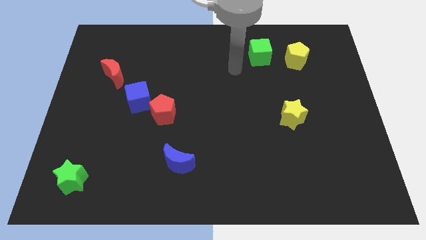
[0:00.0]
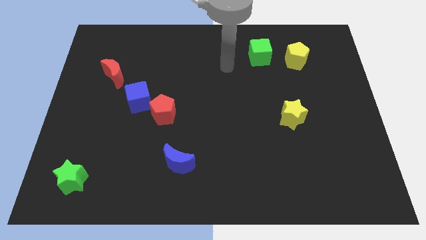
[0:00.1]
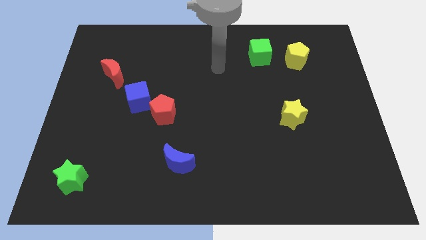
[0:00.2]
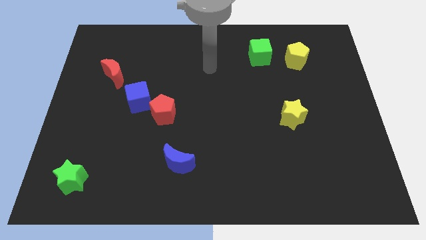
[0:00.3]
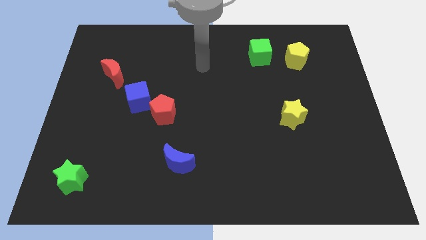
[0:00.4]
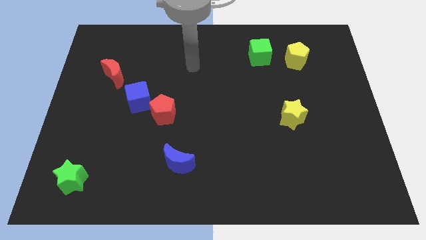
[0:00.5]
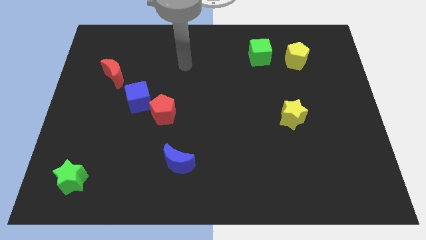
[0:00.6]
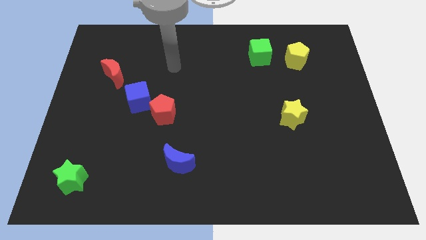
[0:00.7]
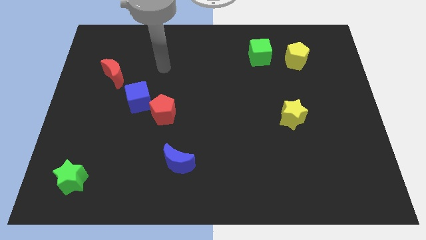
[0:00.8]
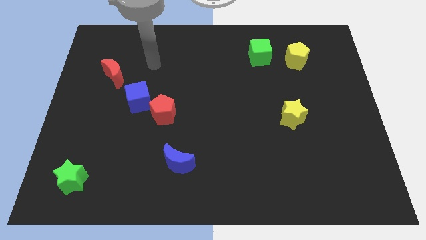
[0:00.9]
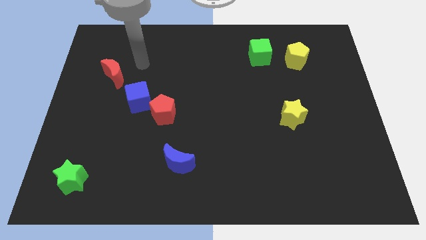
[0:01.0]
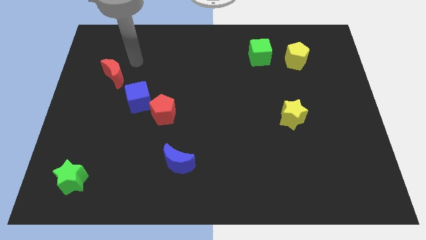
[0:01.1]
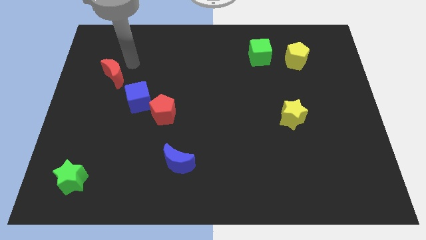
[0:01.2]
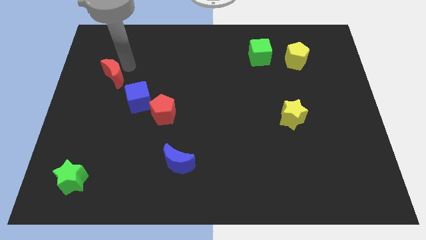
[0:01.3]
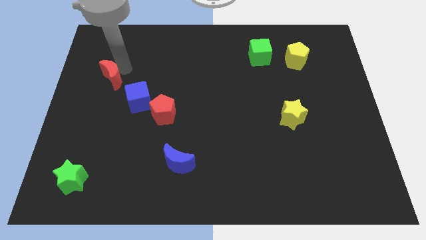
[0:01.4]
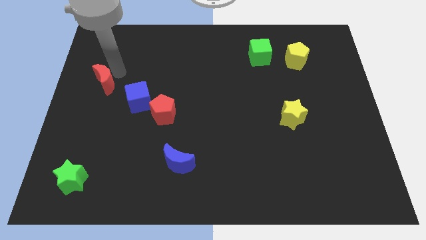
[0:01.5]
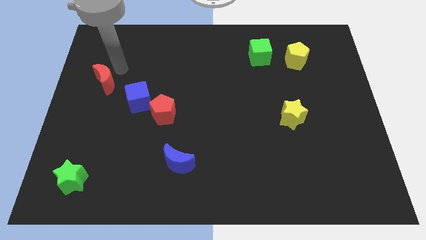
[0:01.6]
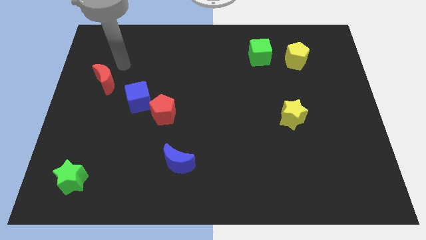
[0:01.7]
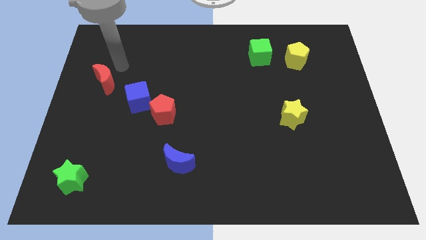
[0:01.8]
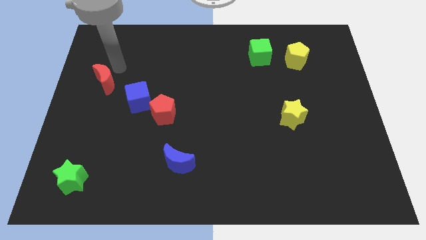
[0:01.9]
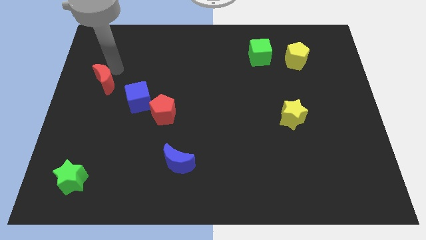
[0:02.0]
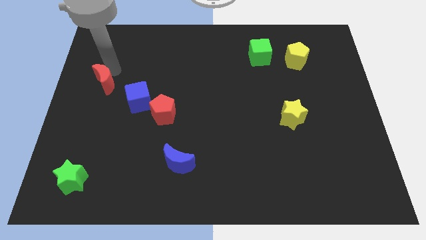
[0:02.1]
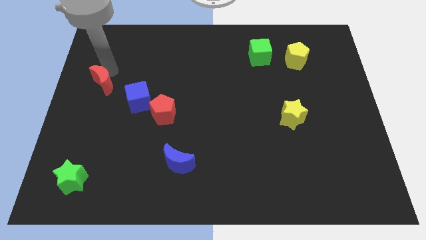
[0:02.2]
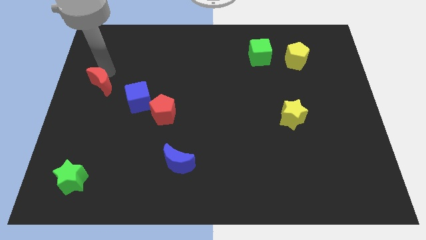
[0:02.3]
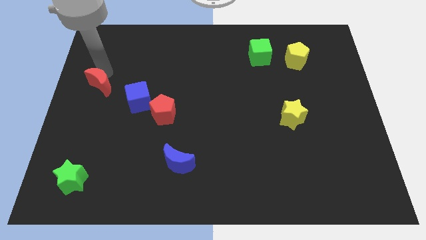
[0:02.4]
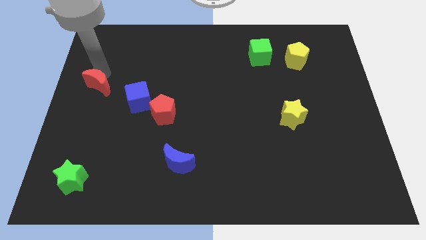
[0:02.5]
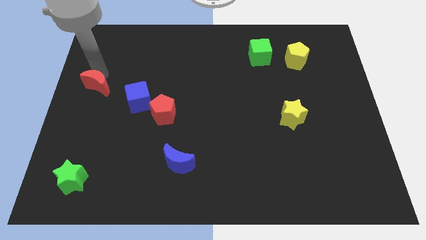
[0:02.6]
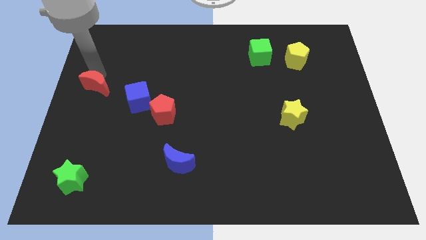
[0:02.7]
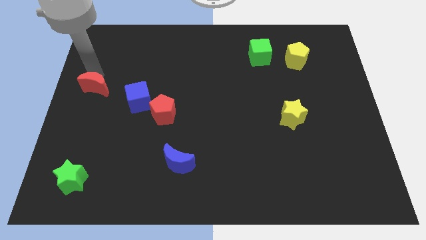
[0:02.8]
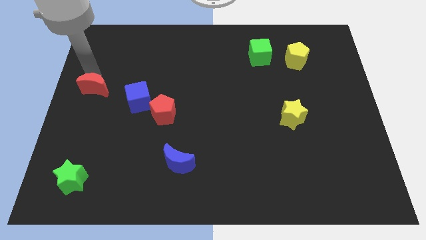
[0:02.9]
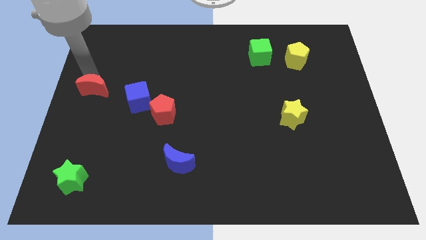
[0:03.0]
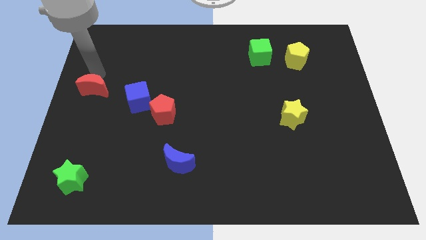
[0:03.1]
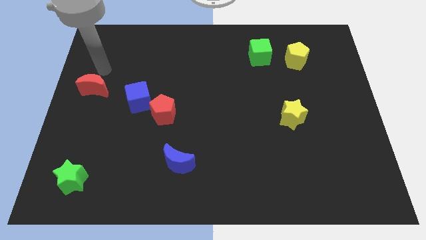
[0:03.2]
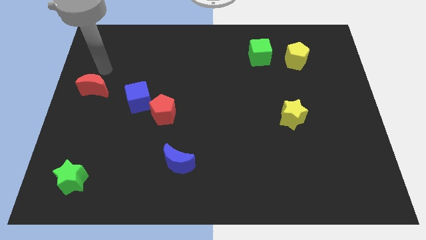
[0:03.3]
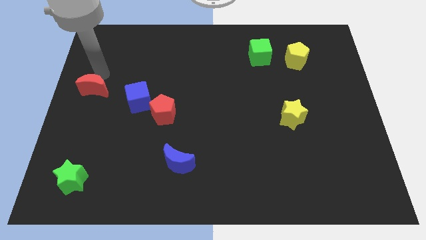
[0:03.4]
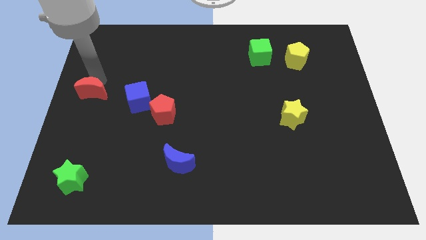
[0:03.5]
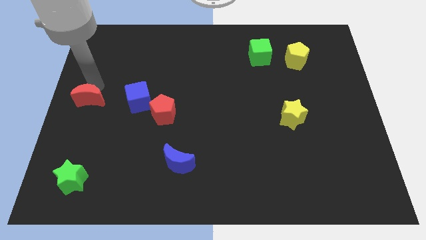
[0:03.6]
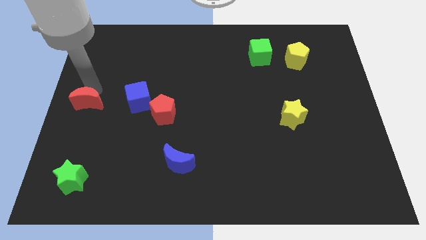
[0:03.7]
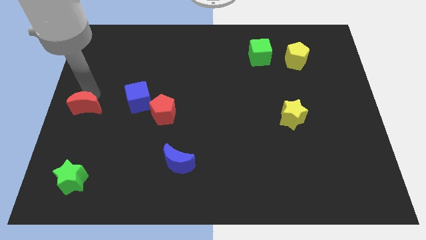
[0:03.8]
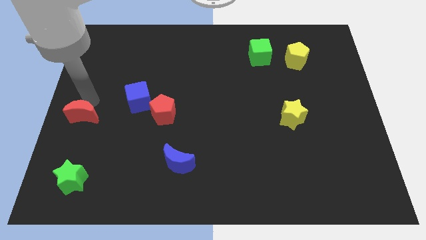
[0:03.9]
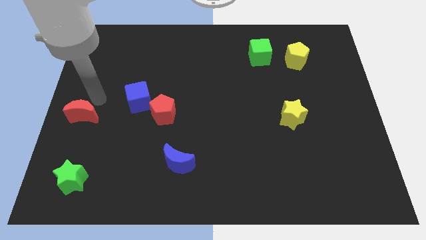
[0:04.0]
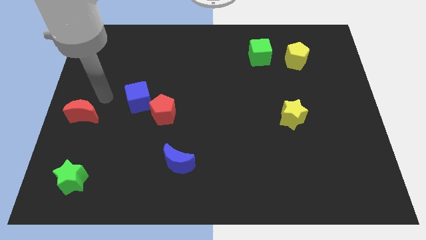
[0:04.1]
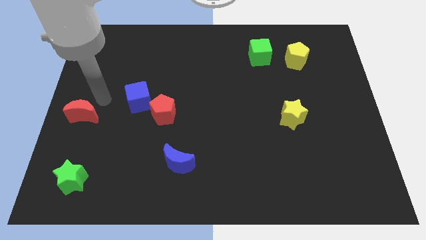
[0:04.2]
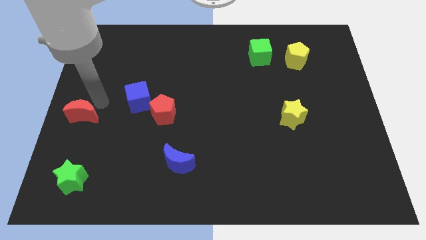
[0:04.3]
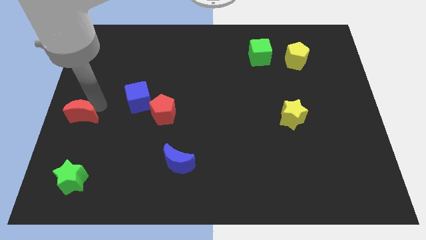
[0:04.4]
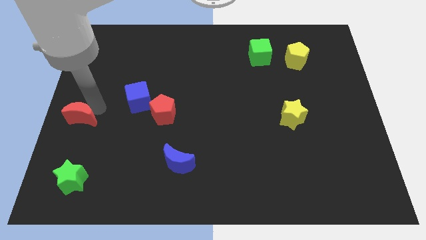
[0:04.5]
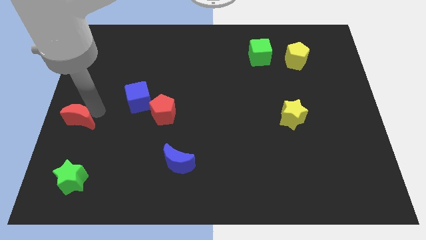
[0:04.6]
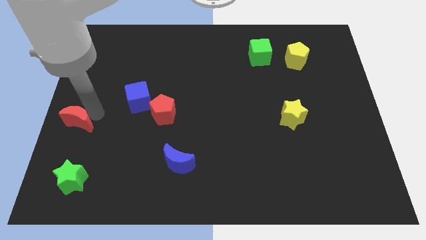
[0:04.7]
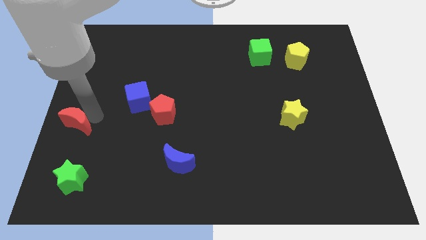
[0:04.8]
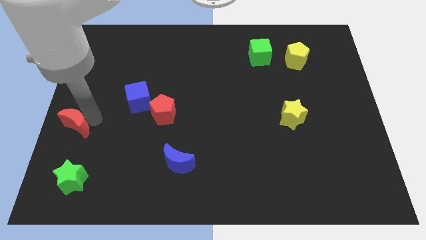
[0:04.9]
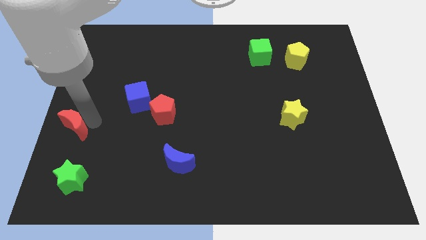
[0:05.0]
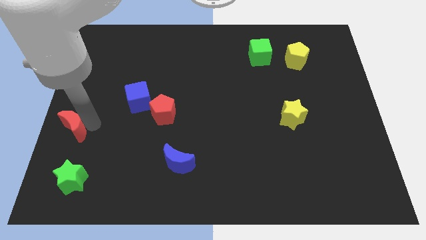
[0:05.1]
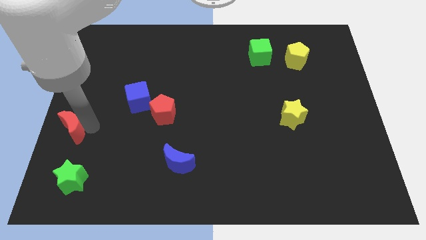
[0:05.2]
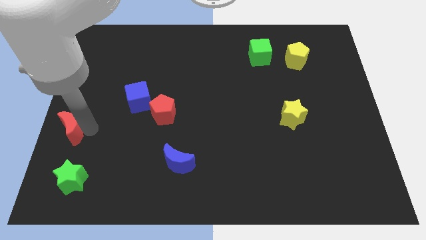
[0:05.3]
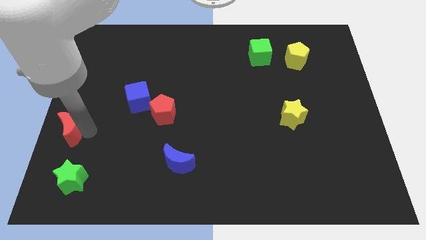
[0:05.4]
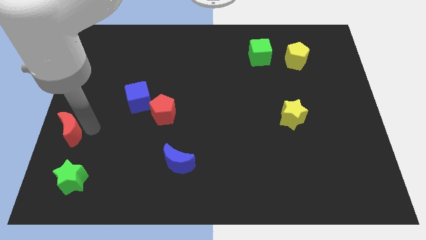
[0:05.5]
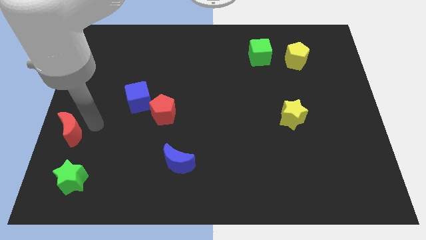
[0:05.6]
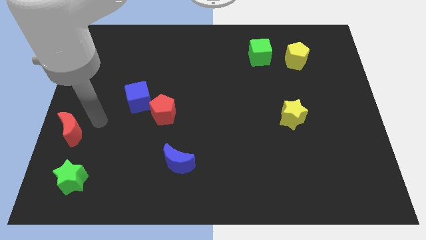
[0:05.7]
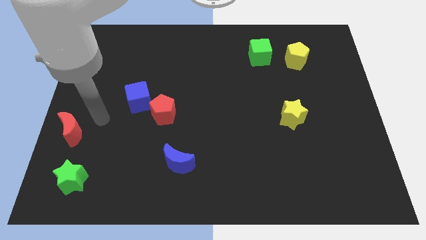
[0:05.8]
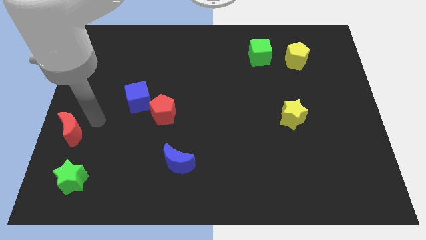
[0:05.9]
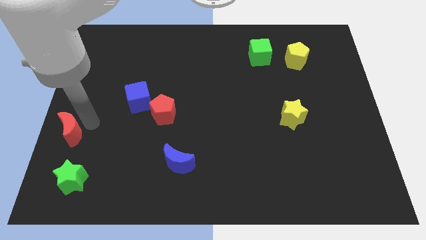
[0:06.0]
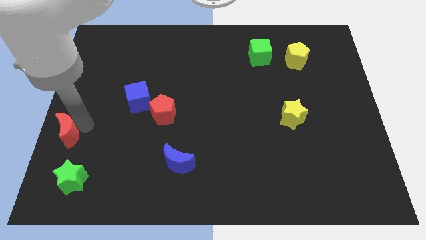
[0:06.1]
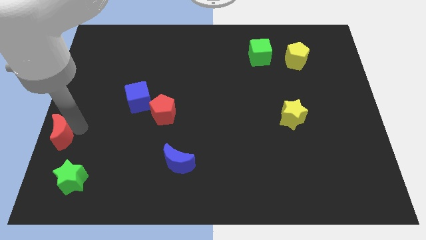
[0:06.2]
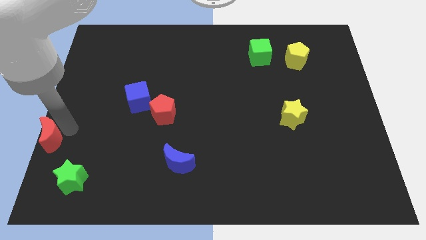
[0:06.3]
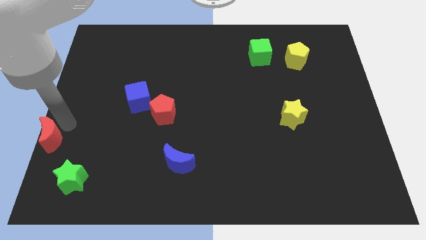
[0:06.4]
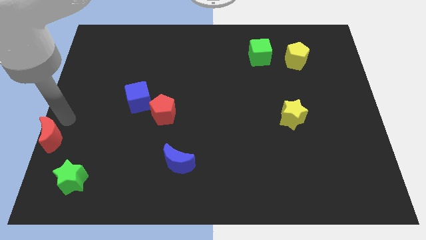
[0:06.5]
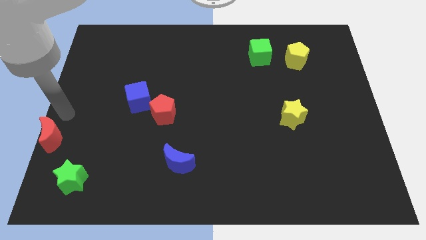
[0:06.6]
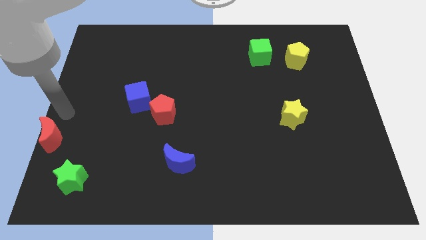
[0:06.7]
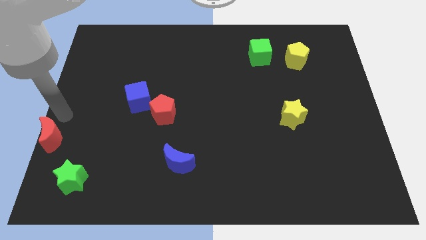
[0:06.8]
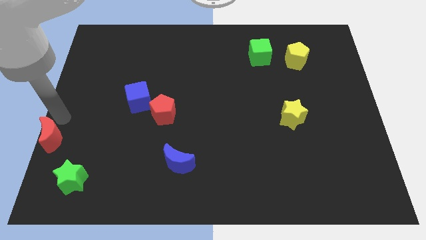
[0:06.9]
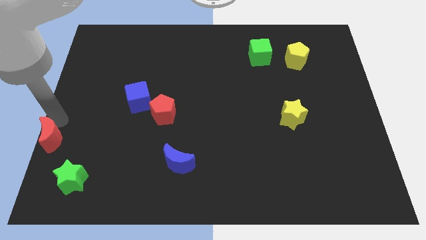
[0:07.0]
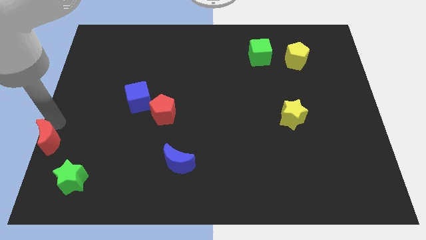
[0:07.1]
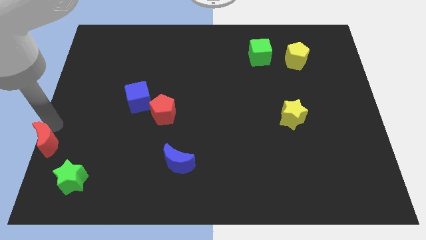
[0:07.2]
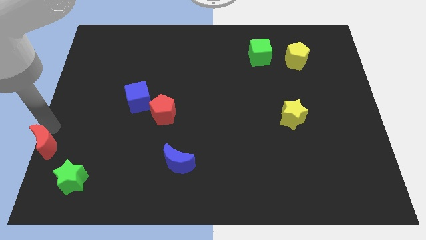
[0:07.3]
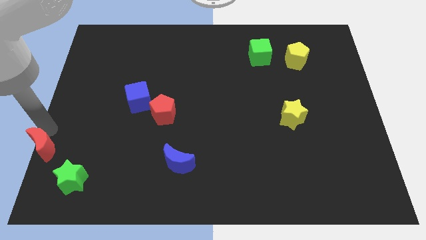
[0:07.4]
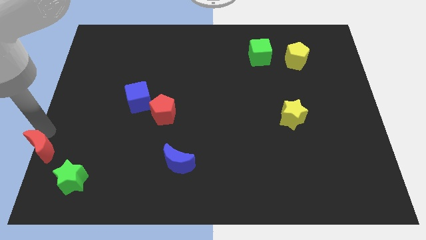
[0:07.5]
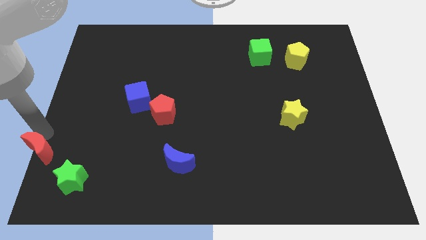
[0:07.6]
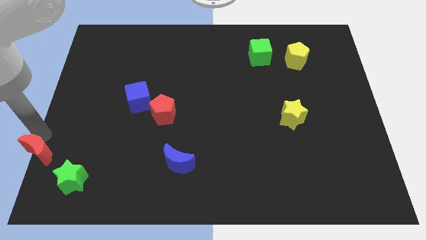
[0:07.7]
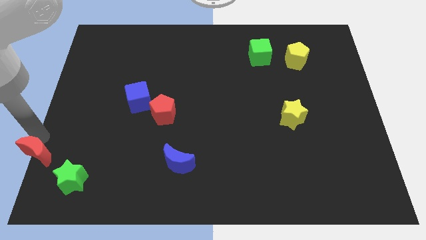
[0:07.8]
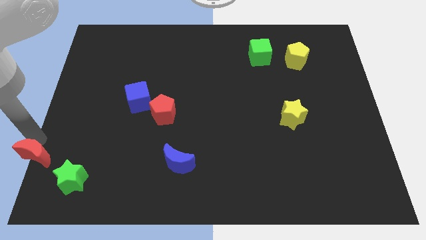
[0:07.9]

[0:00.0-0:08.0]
put the red moon to the lower left corner
